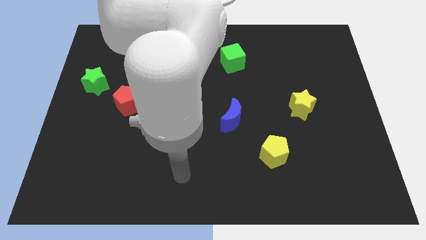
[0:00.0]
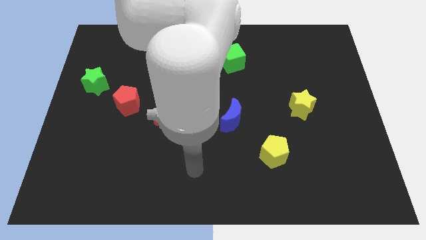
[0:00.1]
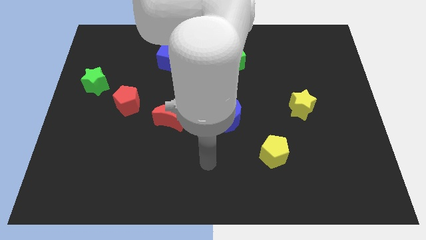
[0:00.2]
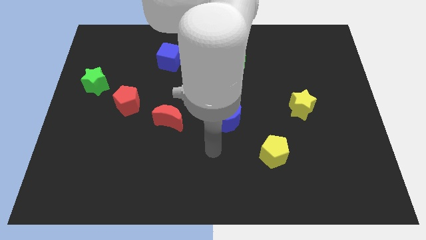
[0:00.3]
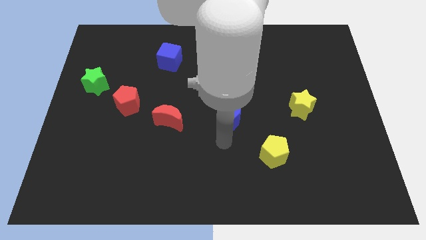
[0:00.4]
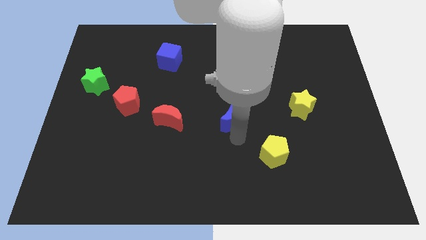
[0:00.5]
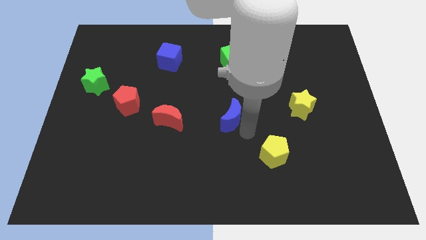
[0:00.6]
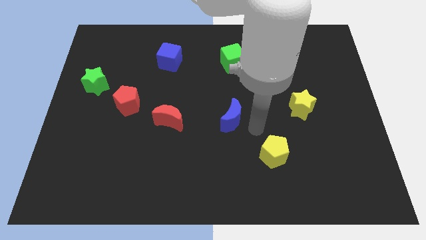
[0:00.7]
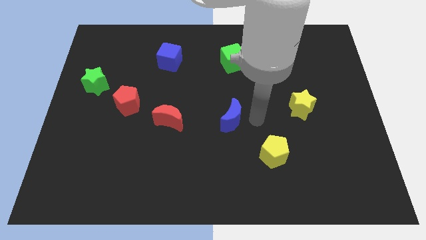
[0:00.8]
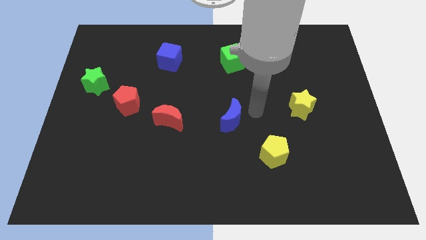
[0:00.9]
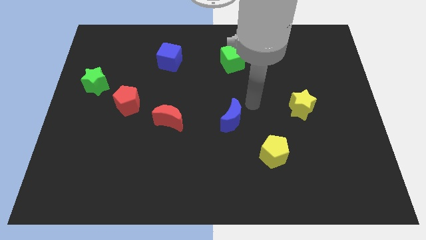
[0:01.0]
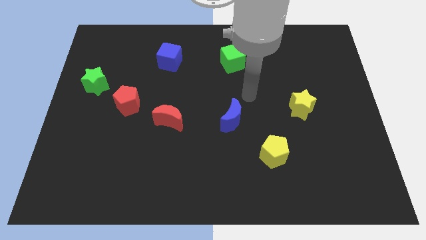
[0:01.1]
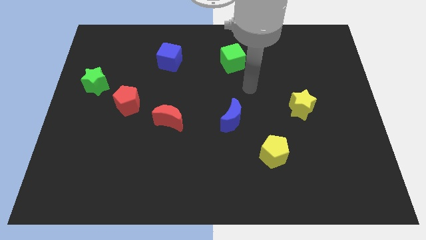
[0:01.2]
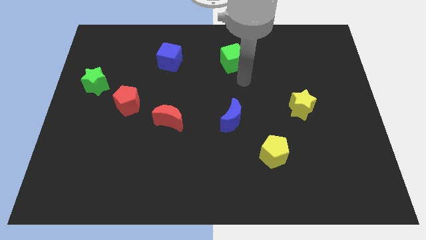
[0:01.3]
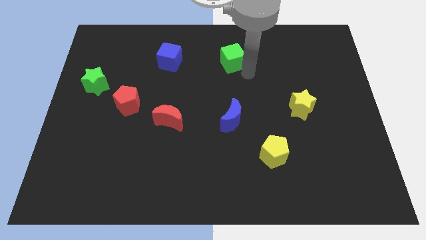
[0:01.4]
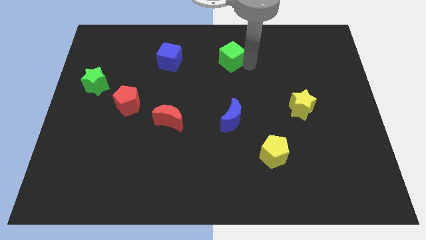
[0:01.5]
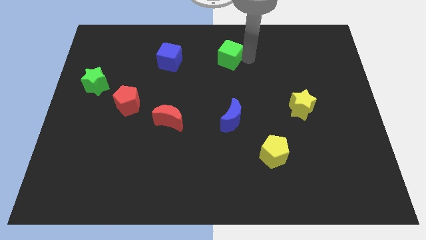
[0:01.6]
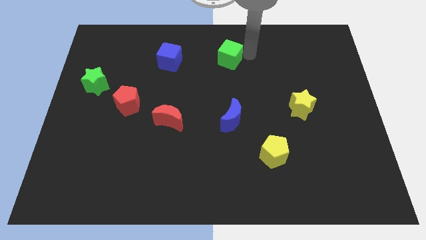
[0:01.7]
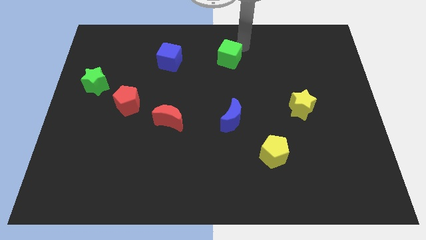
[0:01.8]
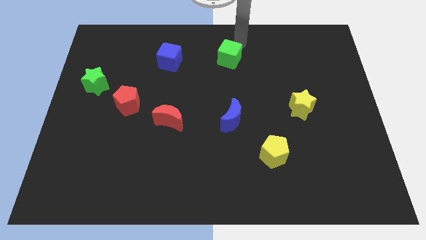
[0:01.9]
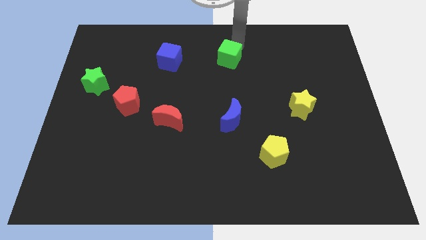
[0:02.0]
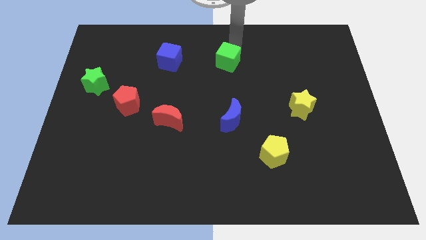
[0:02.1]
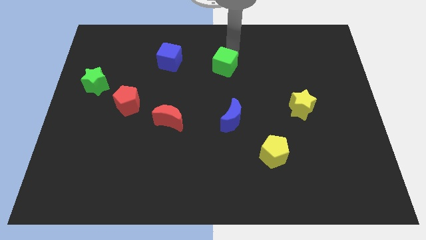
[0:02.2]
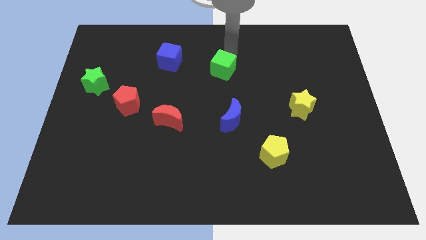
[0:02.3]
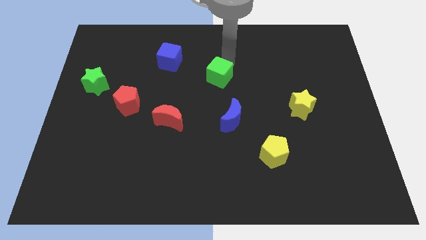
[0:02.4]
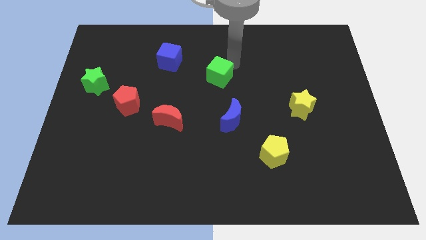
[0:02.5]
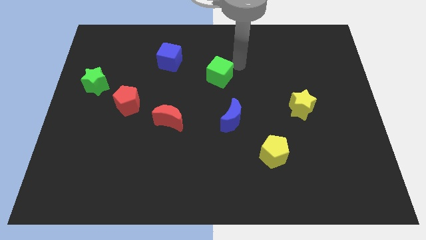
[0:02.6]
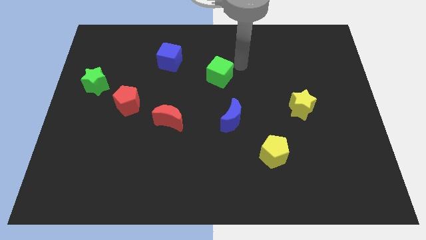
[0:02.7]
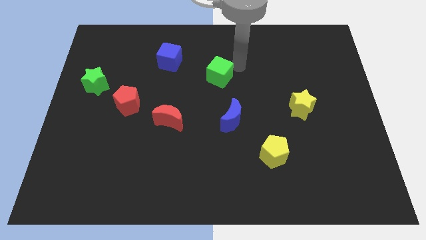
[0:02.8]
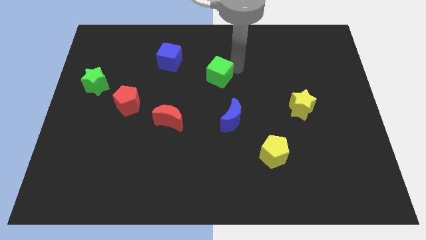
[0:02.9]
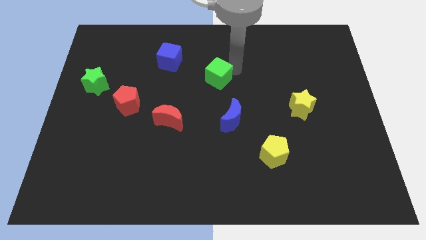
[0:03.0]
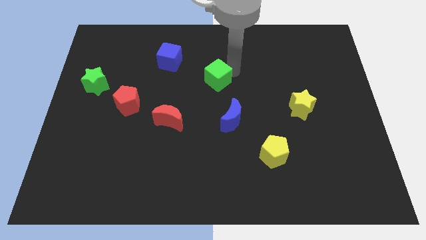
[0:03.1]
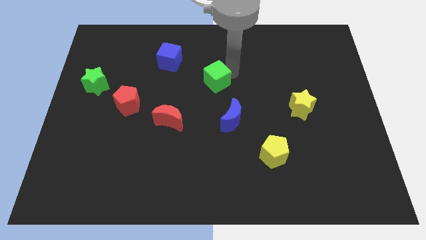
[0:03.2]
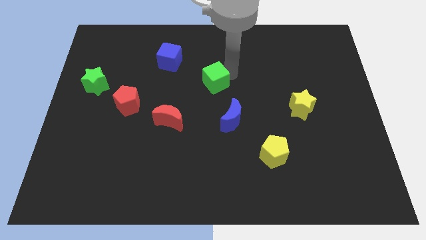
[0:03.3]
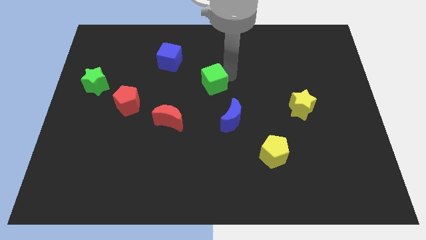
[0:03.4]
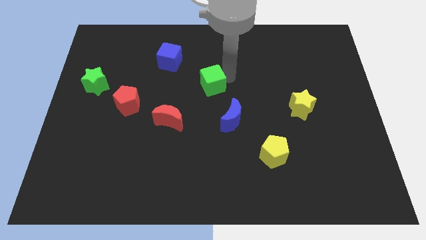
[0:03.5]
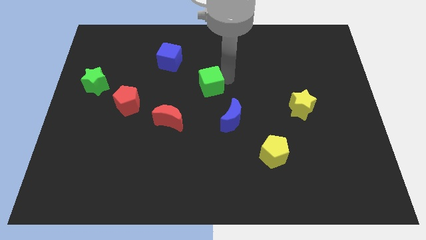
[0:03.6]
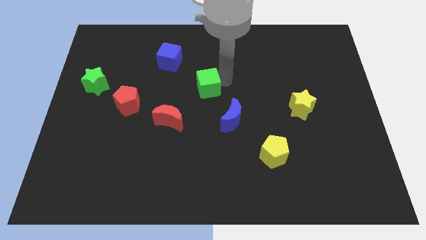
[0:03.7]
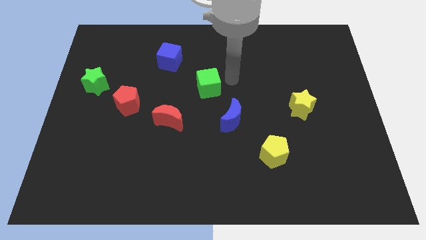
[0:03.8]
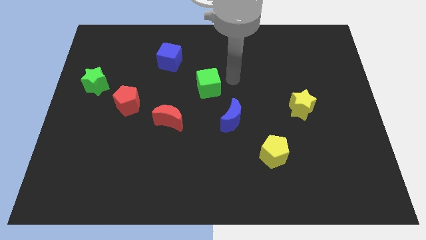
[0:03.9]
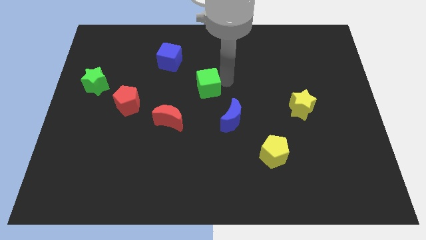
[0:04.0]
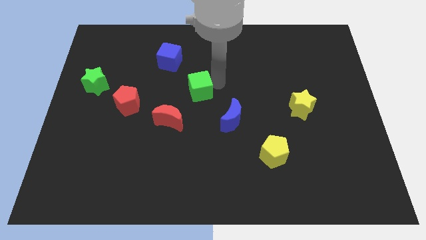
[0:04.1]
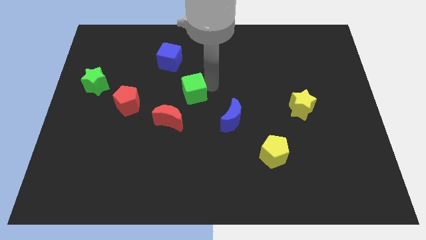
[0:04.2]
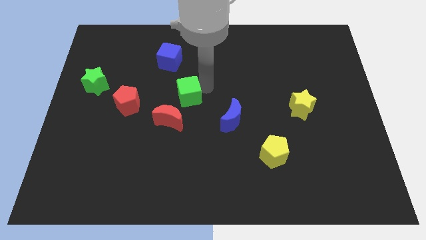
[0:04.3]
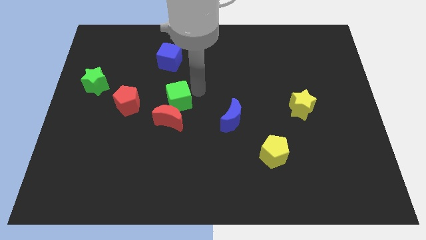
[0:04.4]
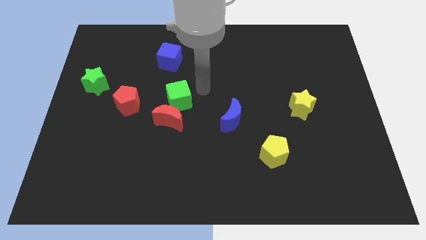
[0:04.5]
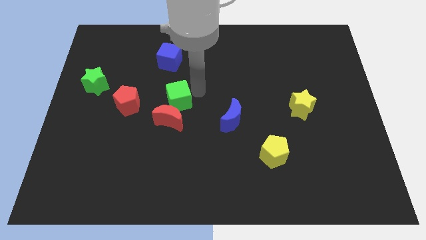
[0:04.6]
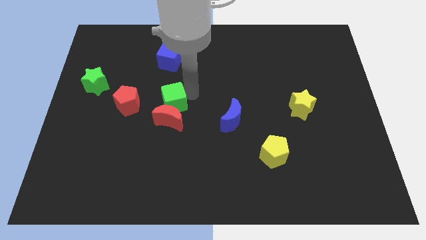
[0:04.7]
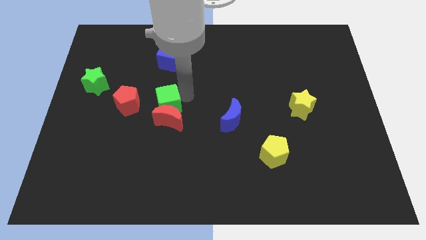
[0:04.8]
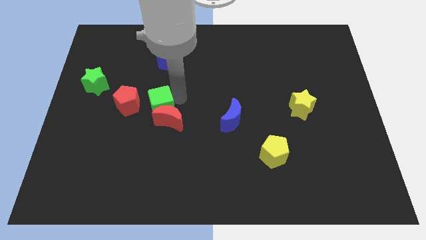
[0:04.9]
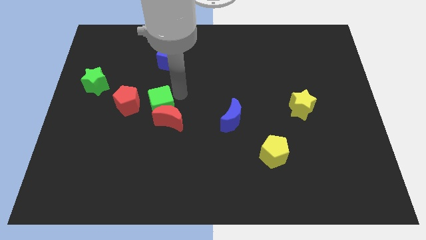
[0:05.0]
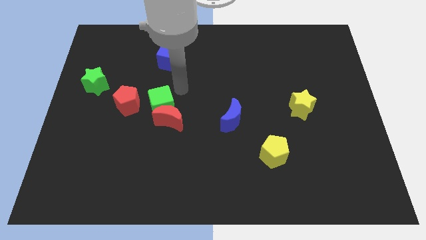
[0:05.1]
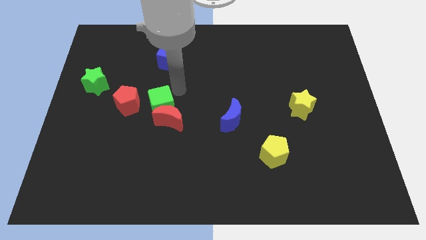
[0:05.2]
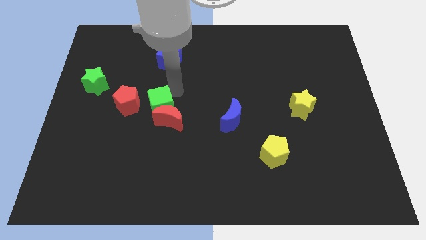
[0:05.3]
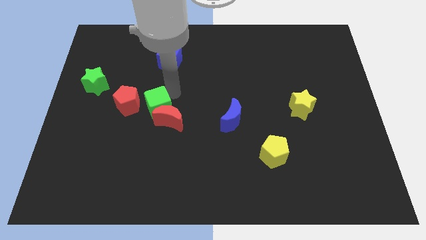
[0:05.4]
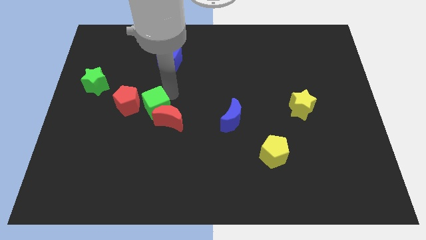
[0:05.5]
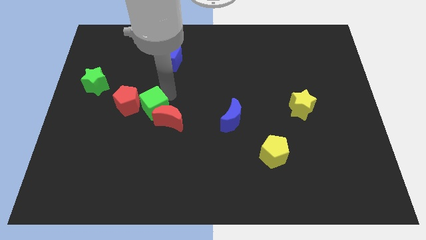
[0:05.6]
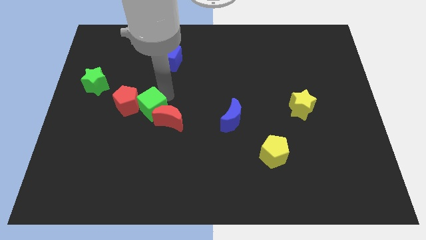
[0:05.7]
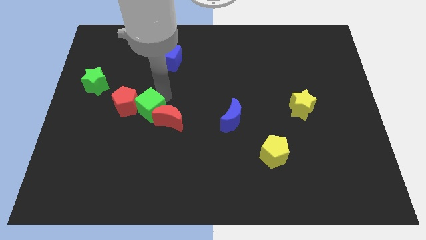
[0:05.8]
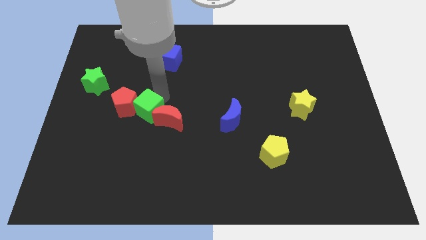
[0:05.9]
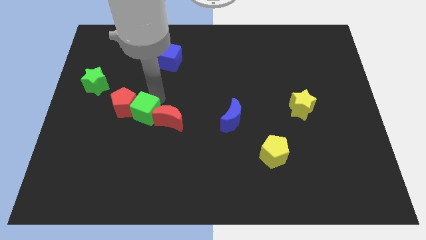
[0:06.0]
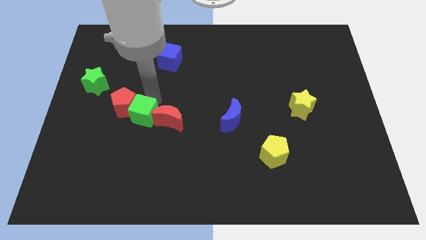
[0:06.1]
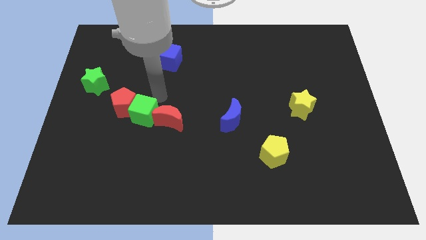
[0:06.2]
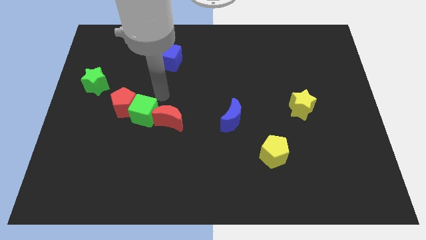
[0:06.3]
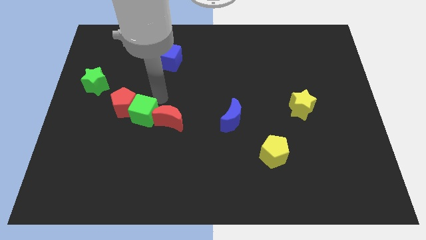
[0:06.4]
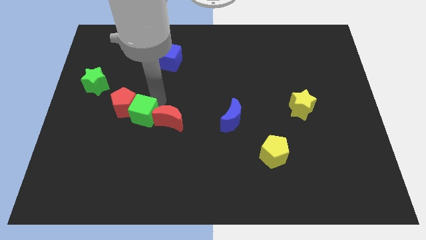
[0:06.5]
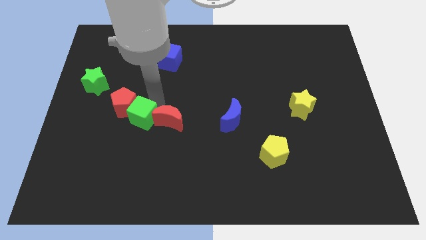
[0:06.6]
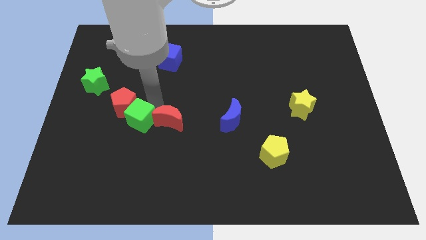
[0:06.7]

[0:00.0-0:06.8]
slide the green cube to the bottom of the red pentagon
